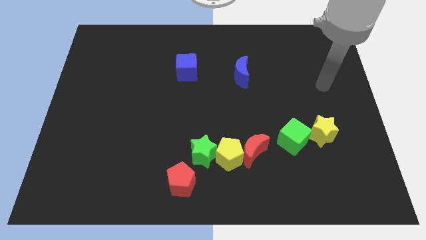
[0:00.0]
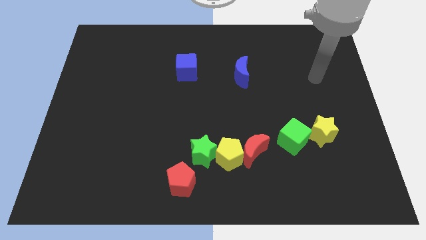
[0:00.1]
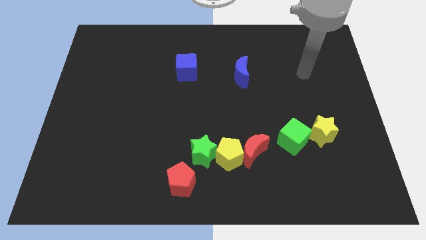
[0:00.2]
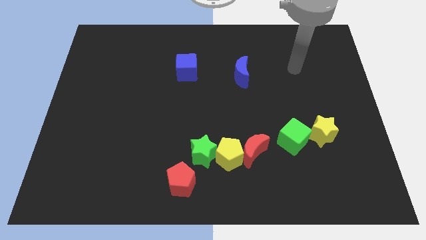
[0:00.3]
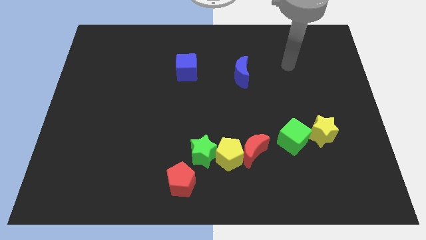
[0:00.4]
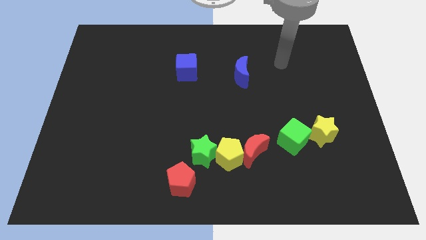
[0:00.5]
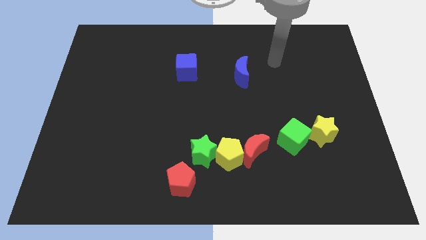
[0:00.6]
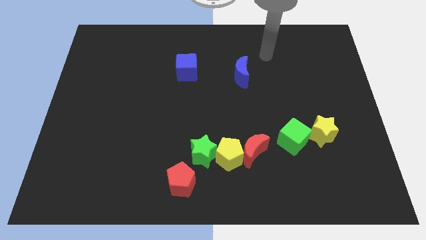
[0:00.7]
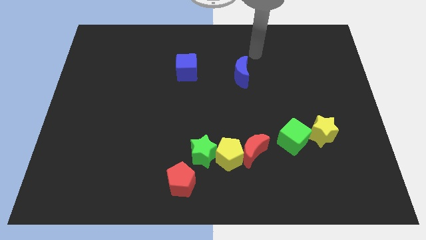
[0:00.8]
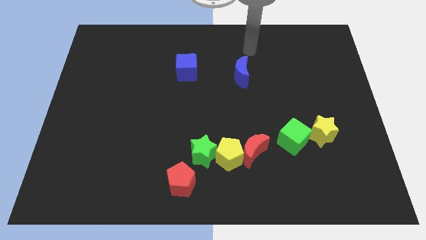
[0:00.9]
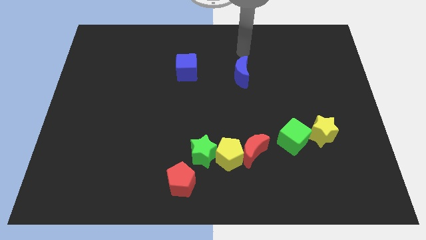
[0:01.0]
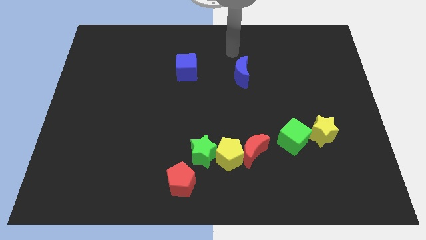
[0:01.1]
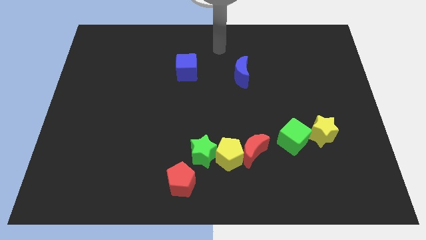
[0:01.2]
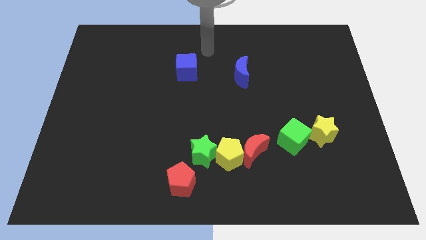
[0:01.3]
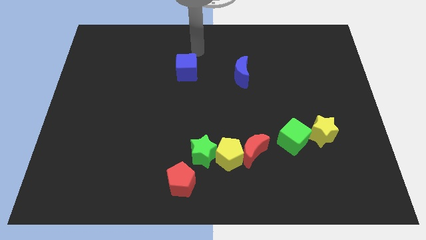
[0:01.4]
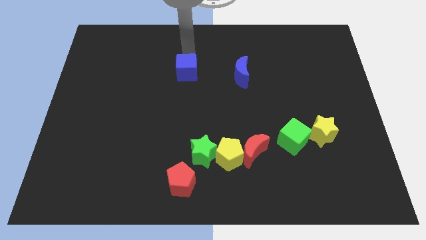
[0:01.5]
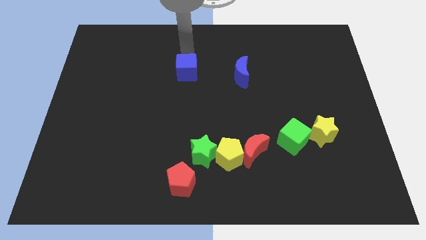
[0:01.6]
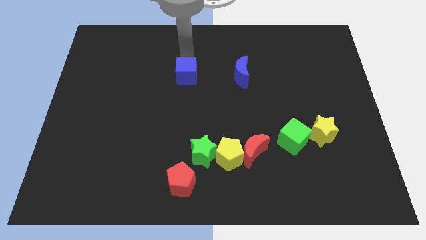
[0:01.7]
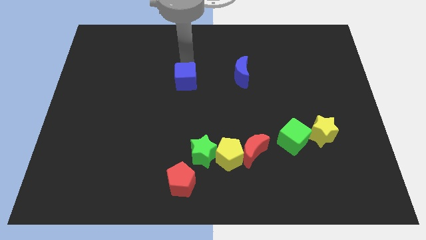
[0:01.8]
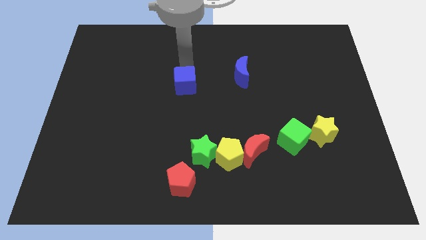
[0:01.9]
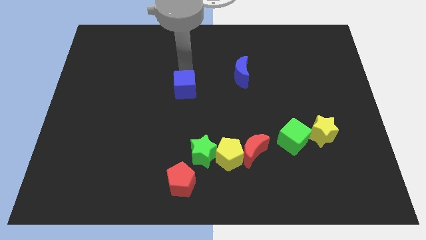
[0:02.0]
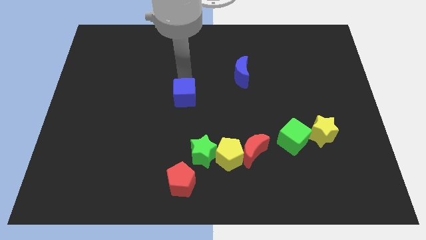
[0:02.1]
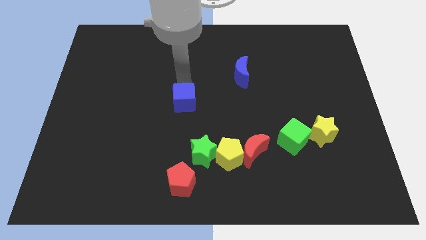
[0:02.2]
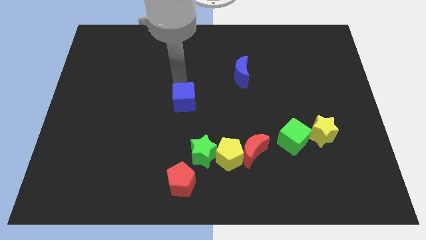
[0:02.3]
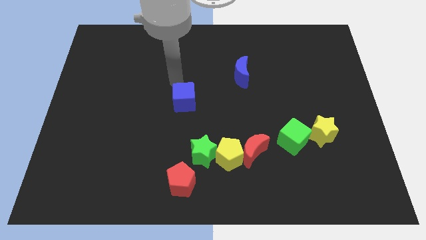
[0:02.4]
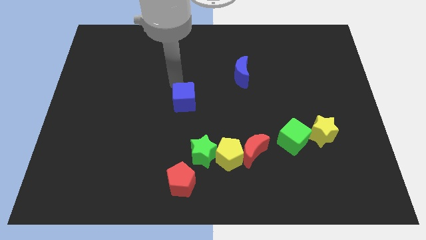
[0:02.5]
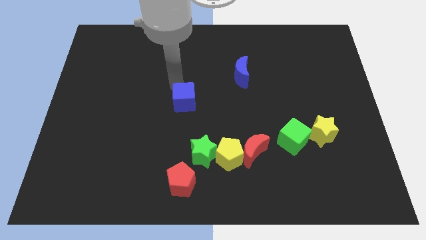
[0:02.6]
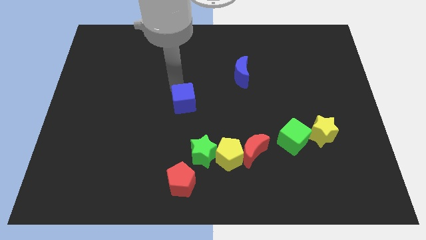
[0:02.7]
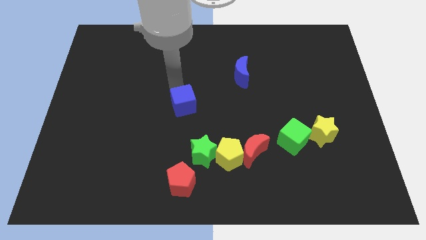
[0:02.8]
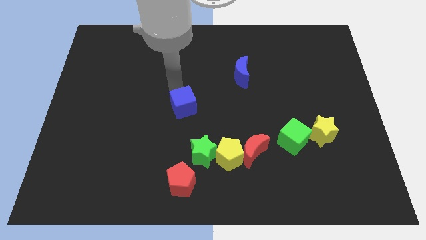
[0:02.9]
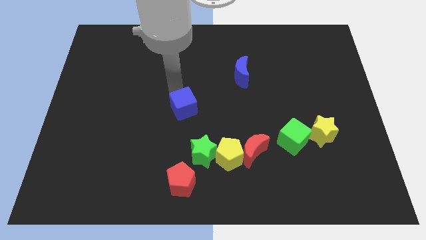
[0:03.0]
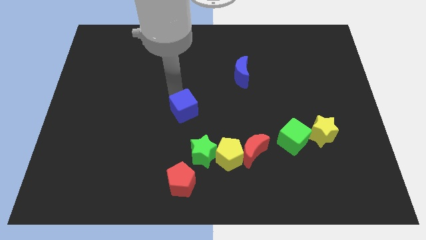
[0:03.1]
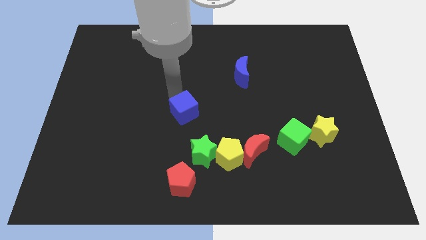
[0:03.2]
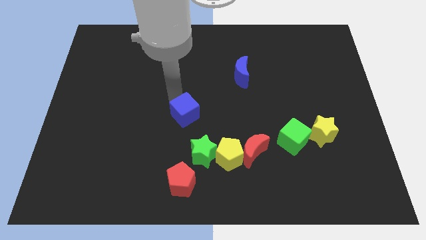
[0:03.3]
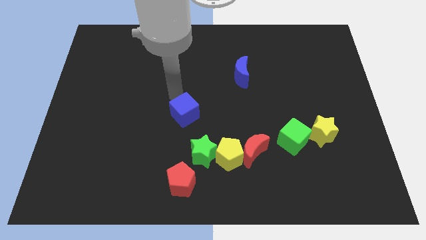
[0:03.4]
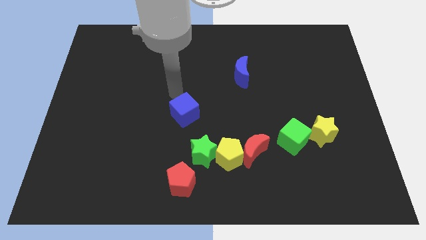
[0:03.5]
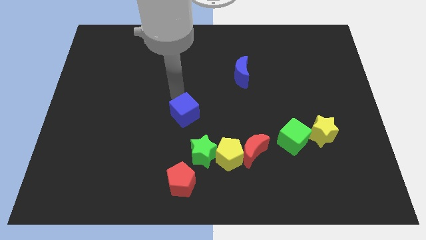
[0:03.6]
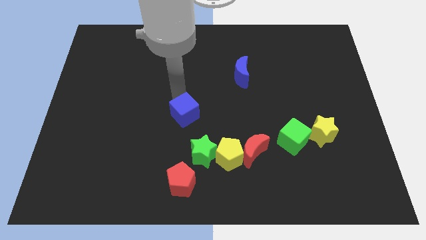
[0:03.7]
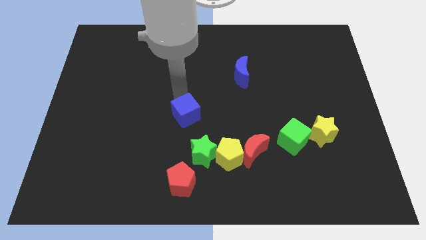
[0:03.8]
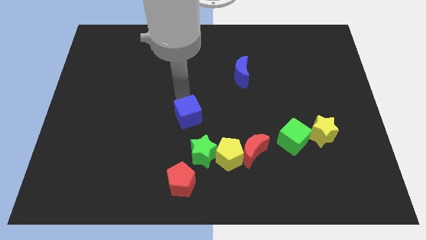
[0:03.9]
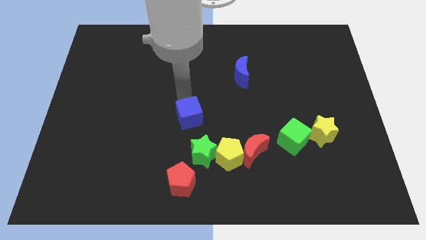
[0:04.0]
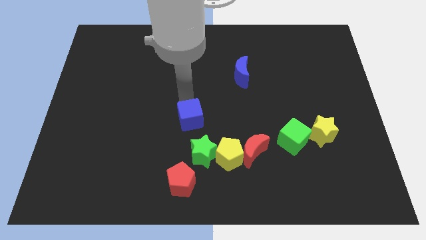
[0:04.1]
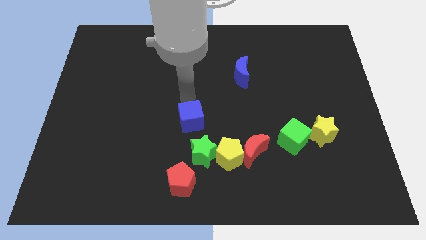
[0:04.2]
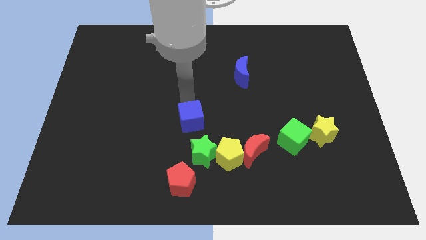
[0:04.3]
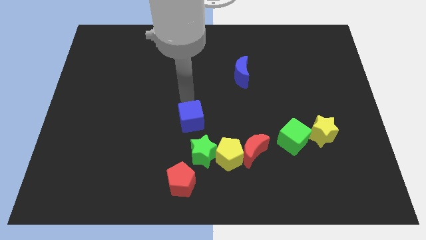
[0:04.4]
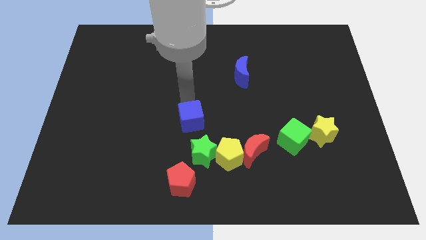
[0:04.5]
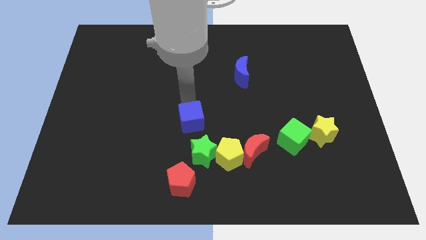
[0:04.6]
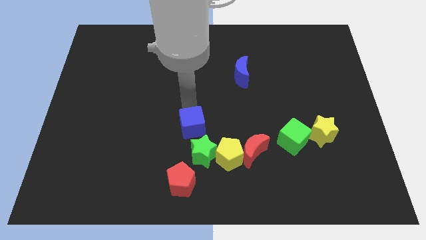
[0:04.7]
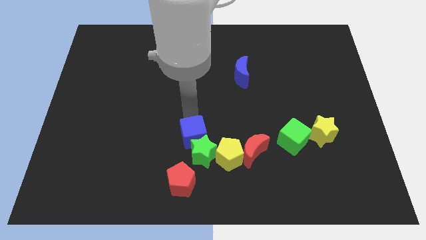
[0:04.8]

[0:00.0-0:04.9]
move the blue cube towards the green star

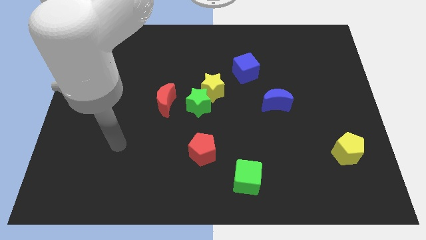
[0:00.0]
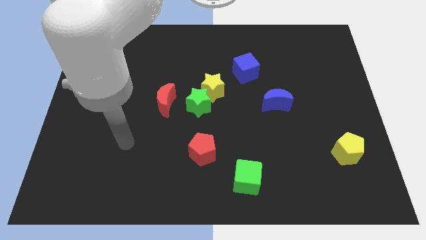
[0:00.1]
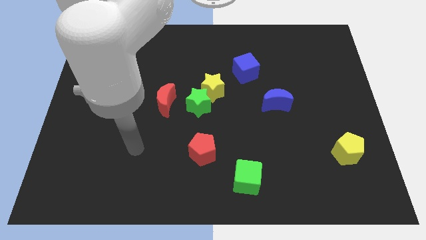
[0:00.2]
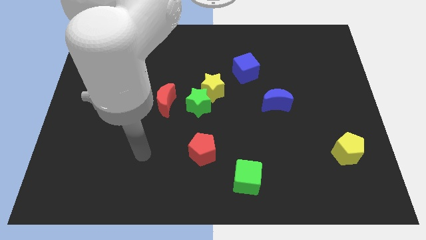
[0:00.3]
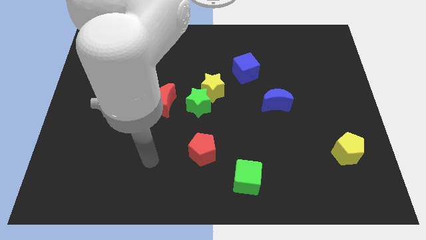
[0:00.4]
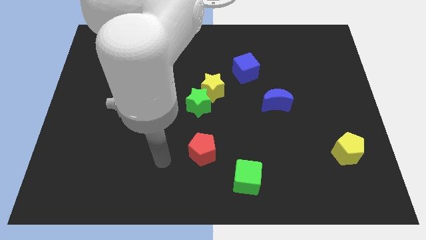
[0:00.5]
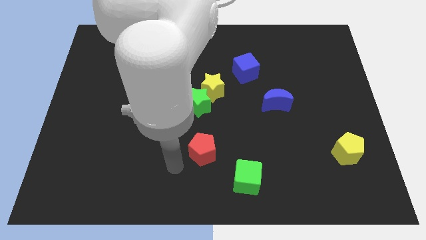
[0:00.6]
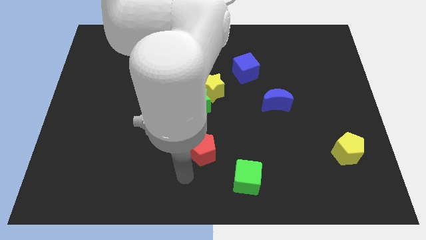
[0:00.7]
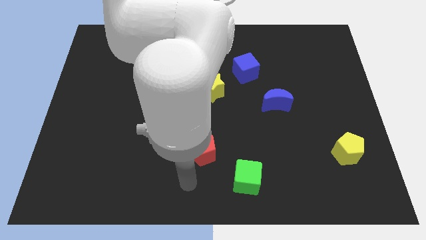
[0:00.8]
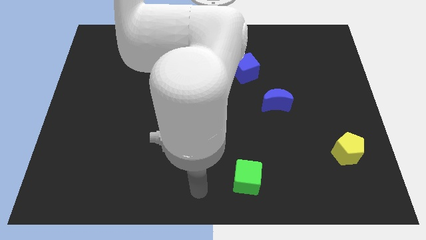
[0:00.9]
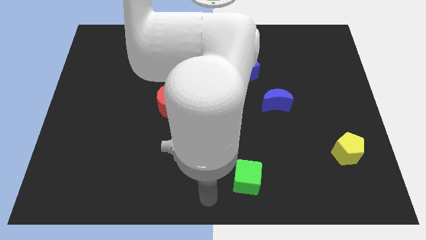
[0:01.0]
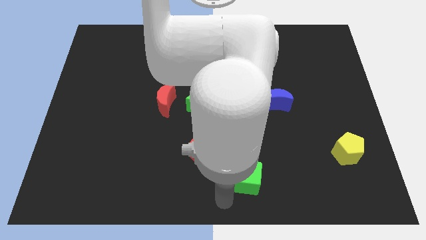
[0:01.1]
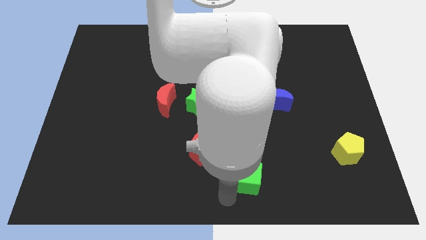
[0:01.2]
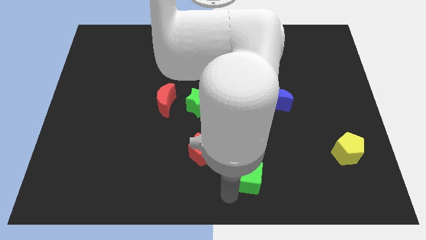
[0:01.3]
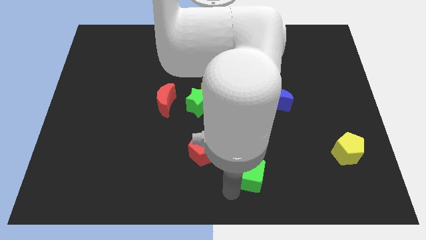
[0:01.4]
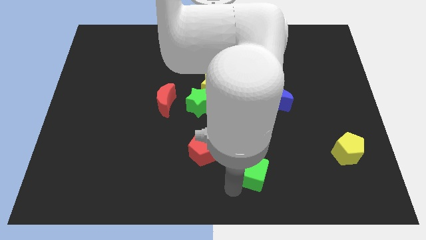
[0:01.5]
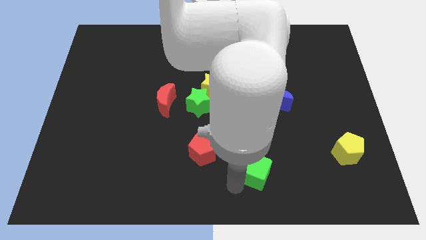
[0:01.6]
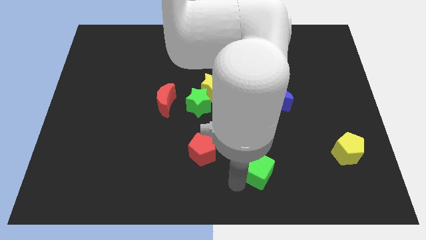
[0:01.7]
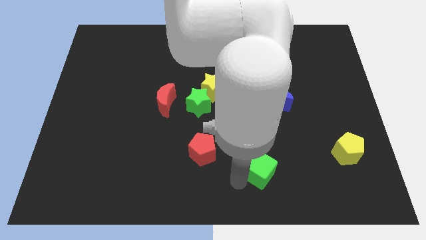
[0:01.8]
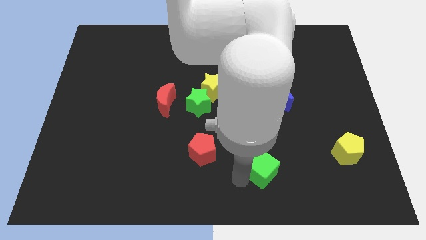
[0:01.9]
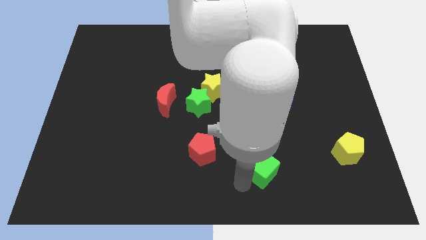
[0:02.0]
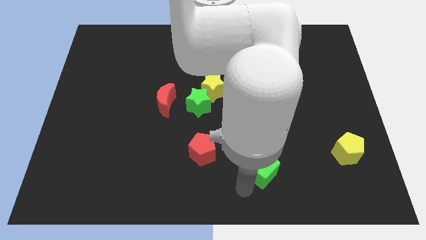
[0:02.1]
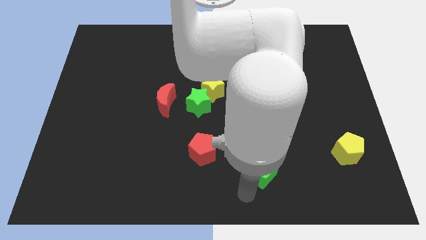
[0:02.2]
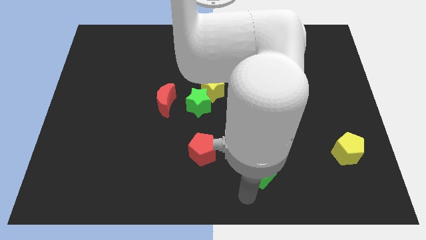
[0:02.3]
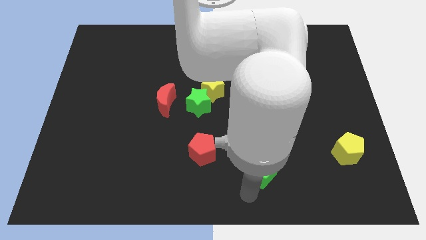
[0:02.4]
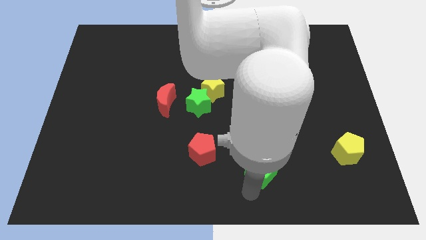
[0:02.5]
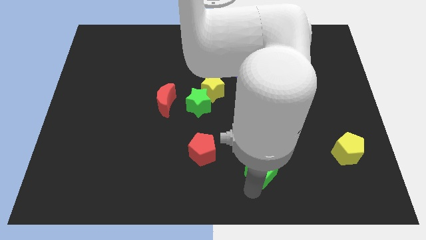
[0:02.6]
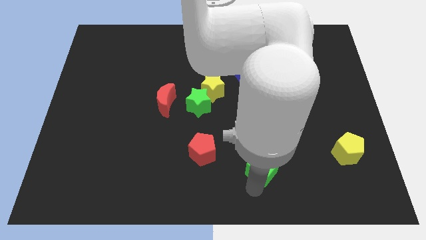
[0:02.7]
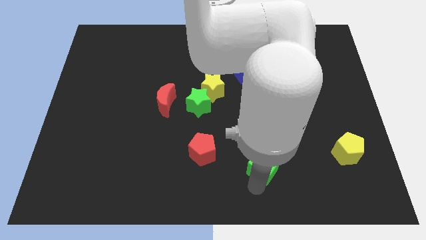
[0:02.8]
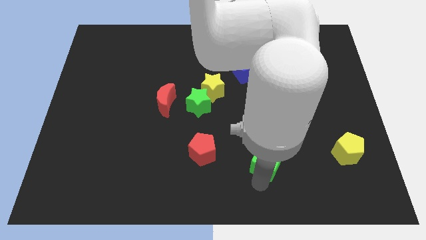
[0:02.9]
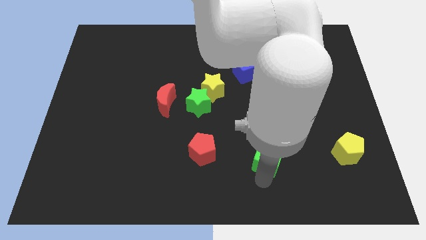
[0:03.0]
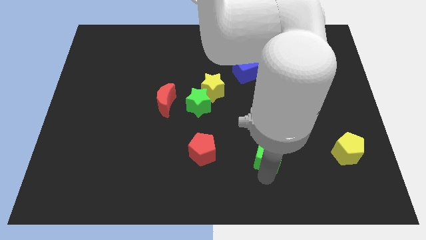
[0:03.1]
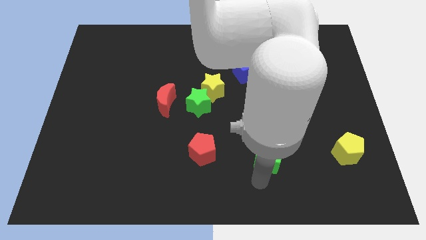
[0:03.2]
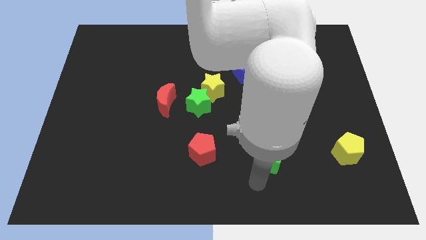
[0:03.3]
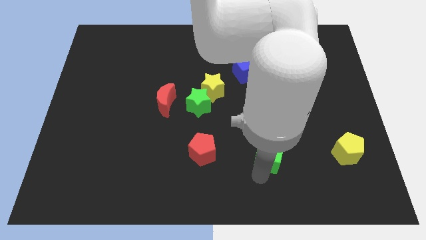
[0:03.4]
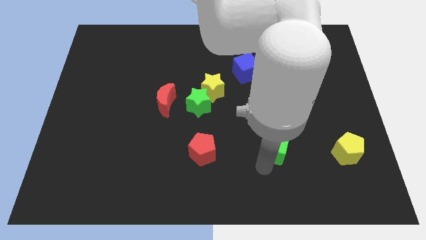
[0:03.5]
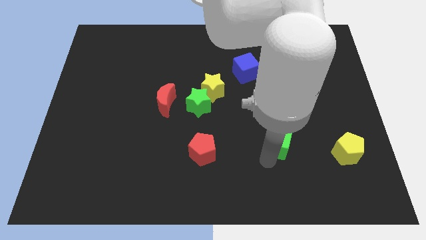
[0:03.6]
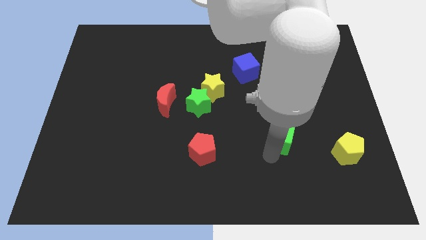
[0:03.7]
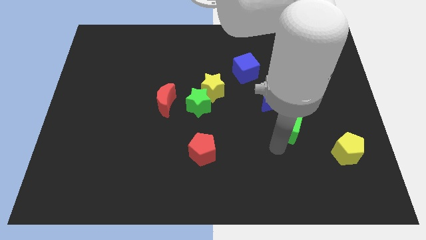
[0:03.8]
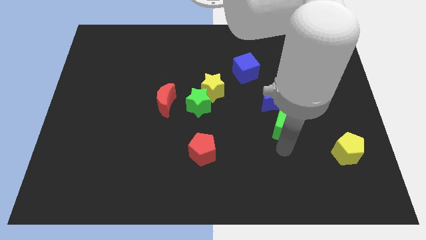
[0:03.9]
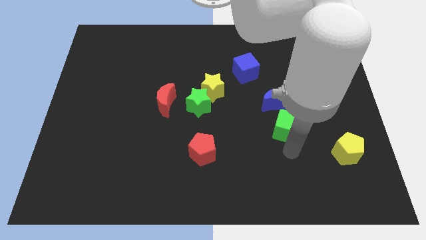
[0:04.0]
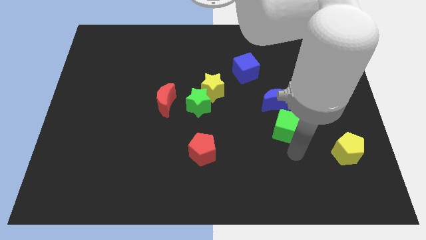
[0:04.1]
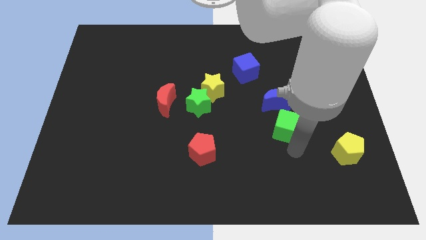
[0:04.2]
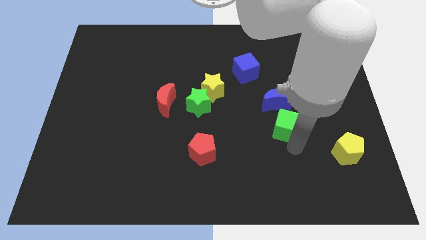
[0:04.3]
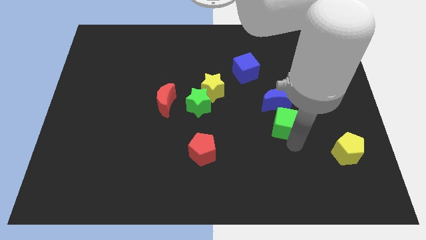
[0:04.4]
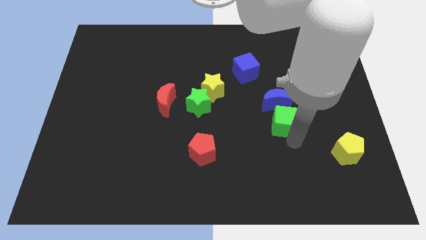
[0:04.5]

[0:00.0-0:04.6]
push the green cube to the blue moon
